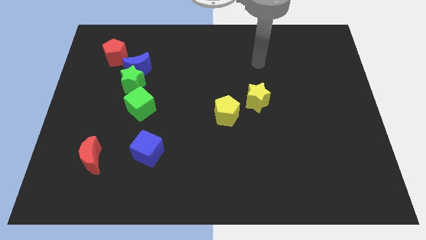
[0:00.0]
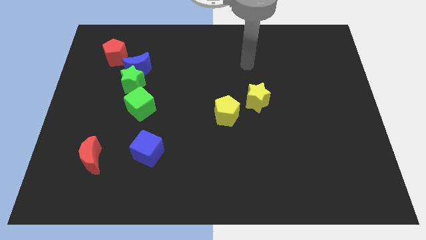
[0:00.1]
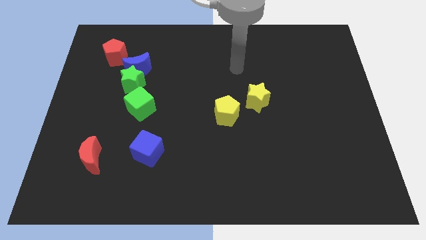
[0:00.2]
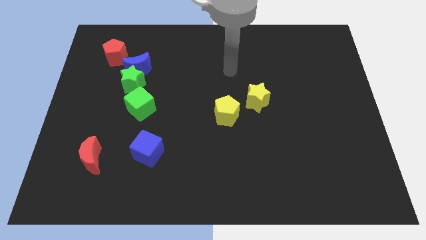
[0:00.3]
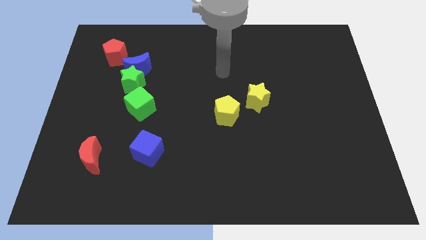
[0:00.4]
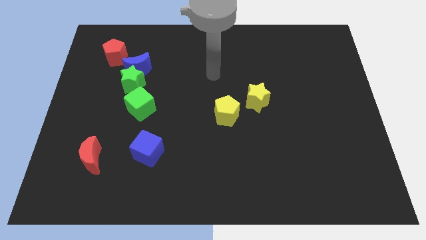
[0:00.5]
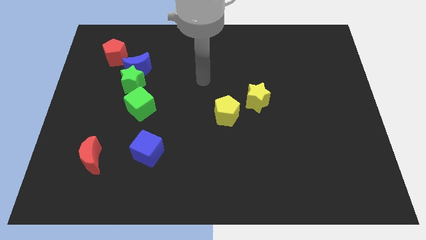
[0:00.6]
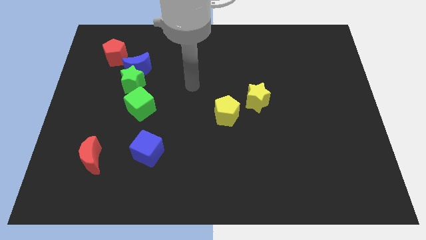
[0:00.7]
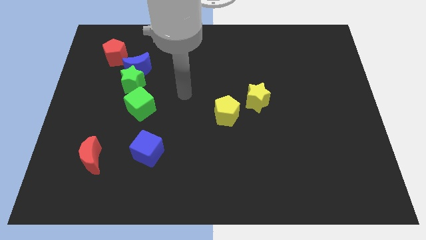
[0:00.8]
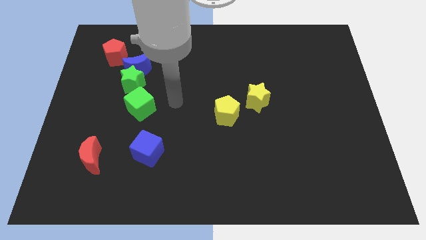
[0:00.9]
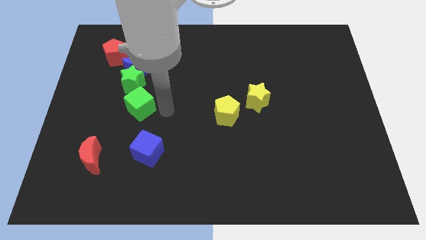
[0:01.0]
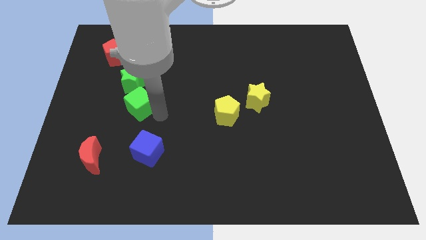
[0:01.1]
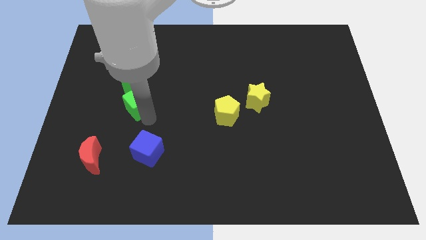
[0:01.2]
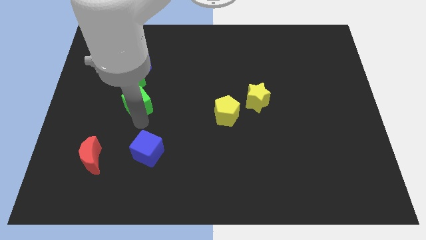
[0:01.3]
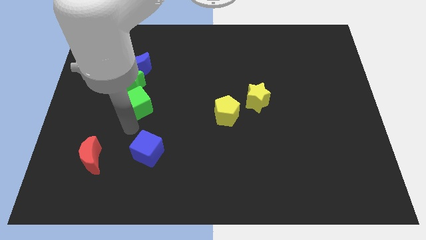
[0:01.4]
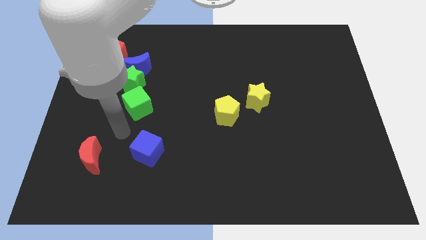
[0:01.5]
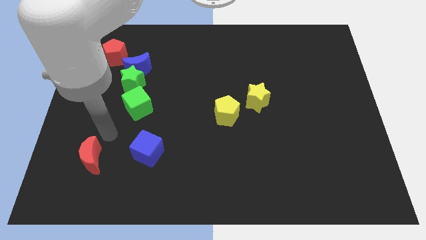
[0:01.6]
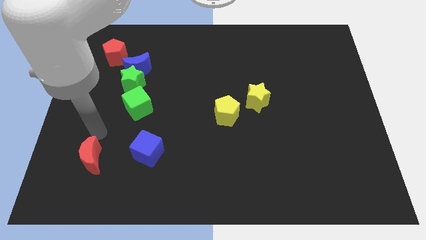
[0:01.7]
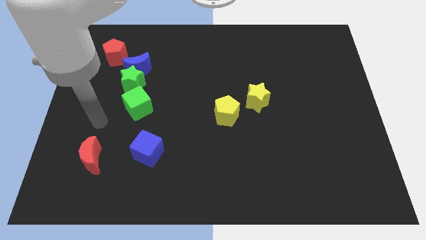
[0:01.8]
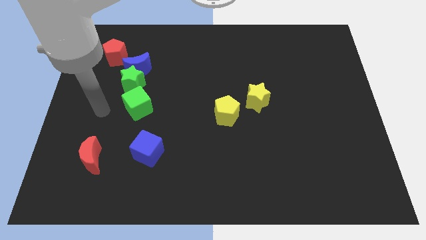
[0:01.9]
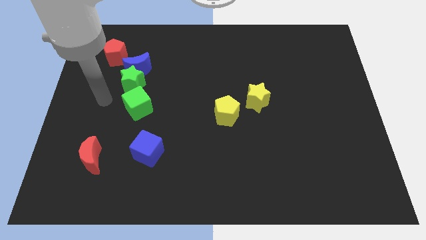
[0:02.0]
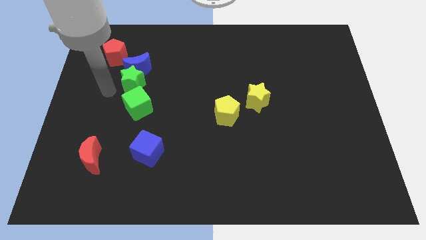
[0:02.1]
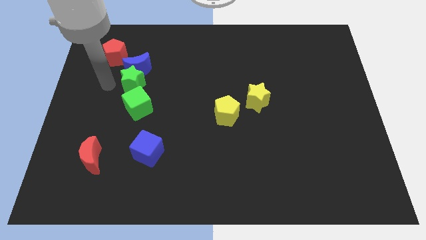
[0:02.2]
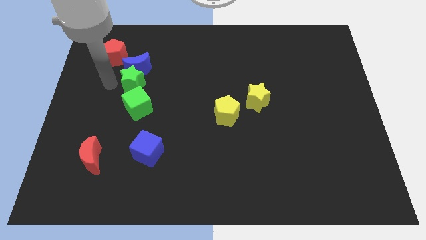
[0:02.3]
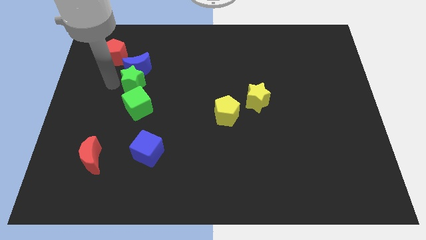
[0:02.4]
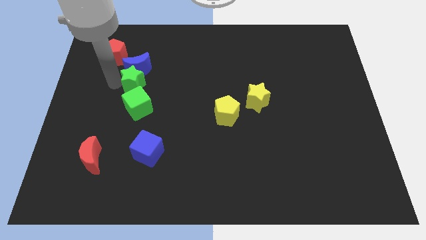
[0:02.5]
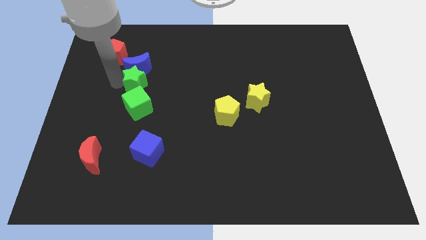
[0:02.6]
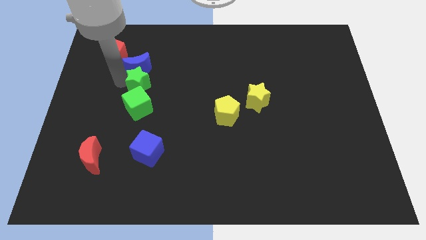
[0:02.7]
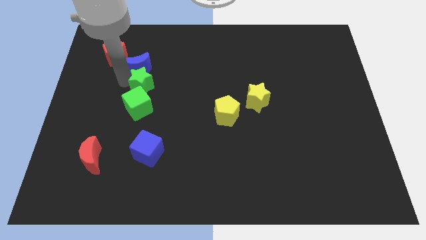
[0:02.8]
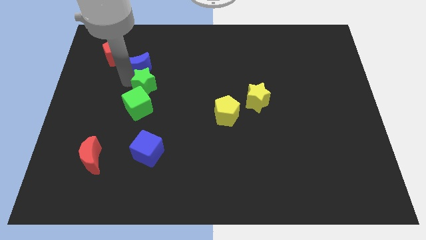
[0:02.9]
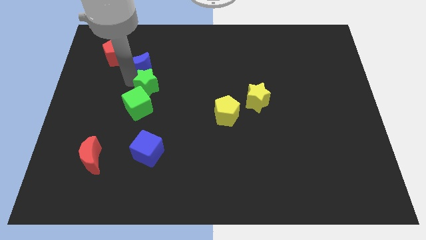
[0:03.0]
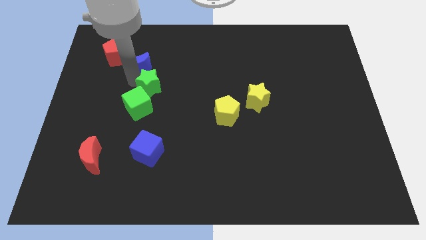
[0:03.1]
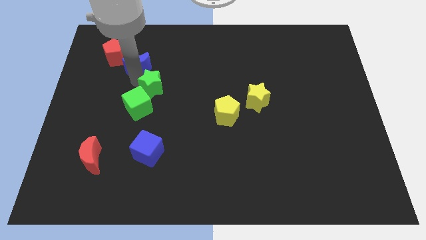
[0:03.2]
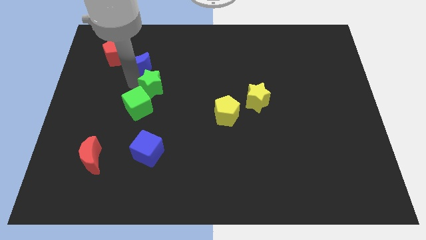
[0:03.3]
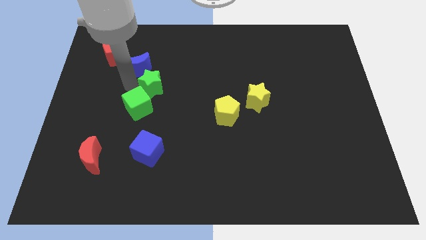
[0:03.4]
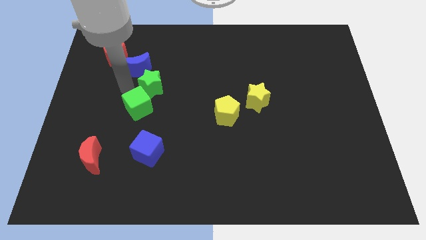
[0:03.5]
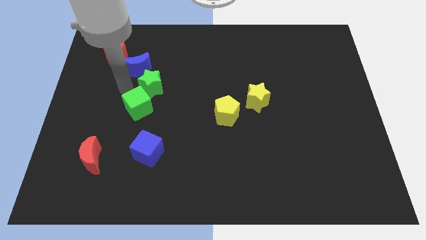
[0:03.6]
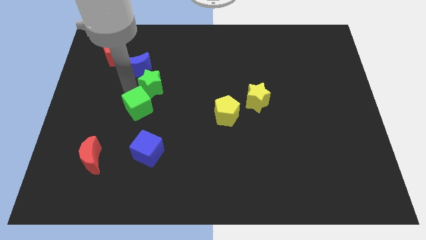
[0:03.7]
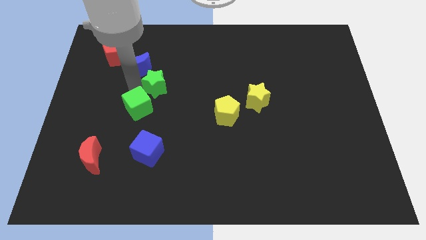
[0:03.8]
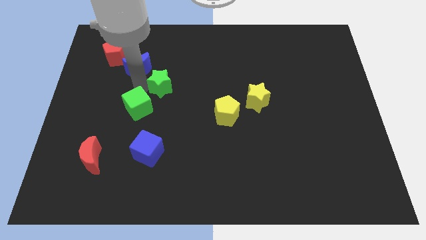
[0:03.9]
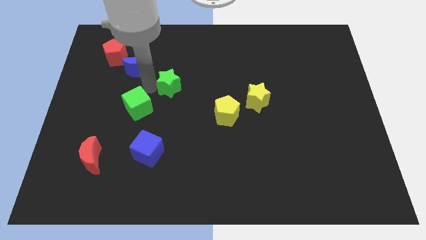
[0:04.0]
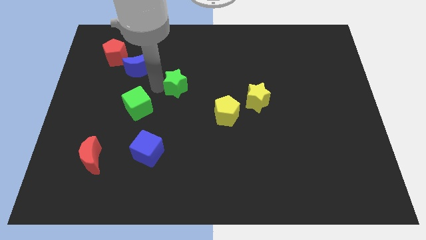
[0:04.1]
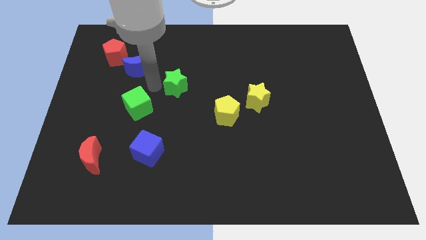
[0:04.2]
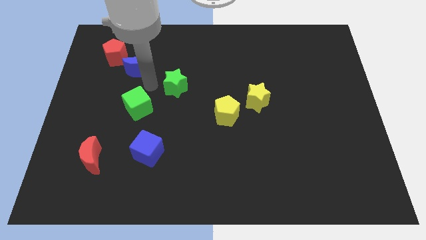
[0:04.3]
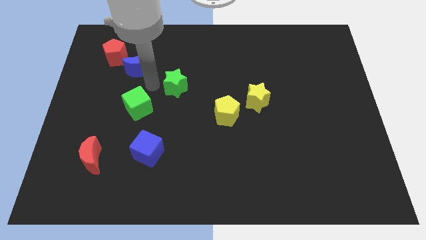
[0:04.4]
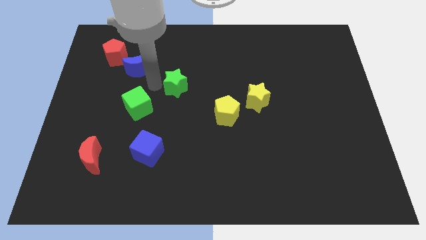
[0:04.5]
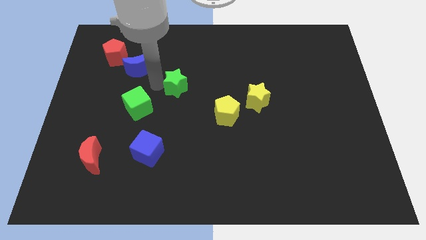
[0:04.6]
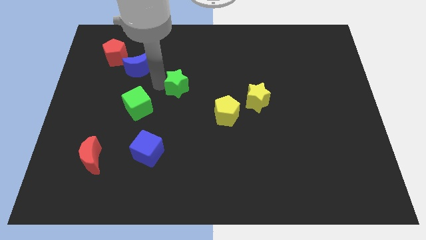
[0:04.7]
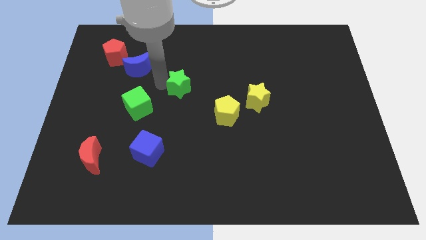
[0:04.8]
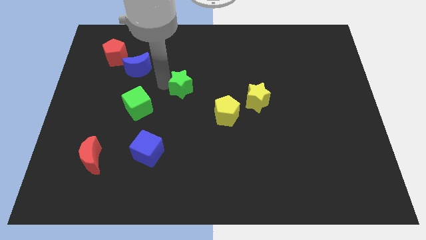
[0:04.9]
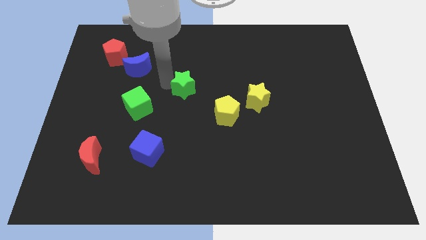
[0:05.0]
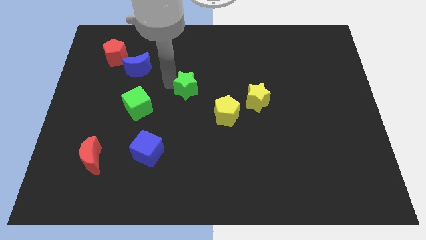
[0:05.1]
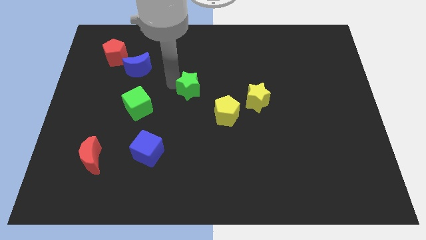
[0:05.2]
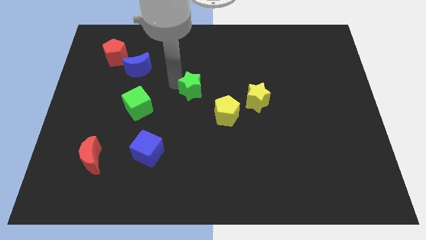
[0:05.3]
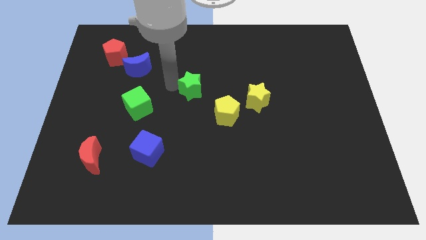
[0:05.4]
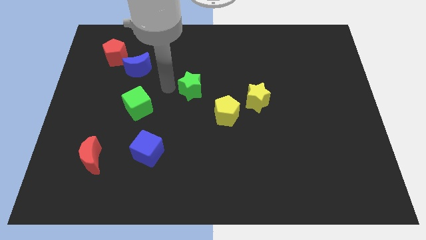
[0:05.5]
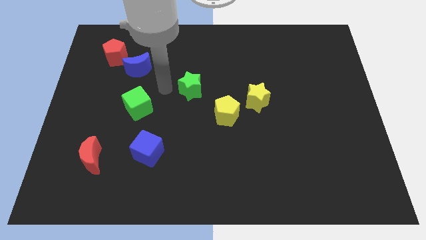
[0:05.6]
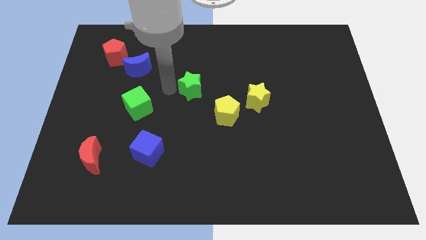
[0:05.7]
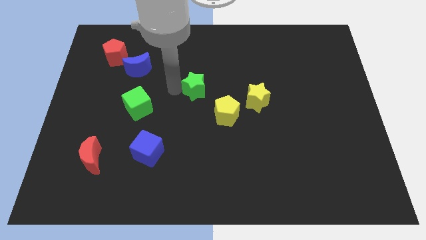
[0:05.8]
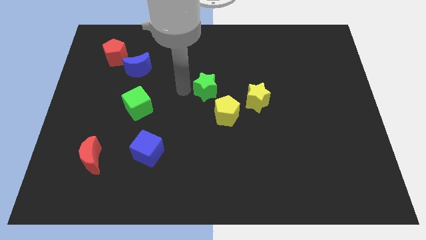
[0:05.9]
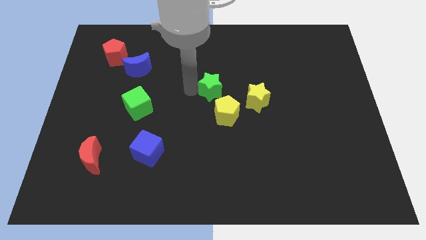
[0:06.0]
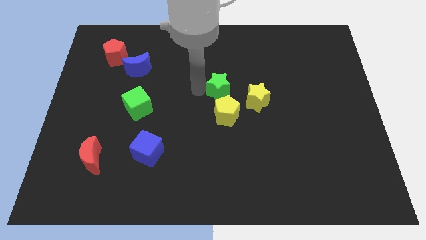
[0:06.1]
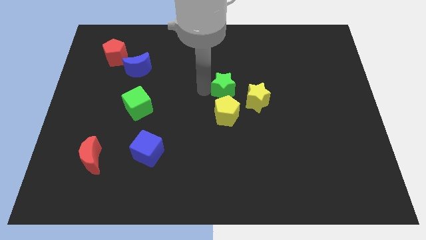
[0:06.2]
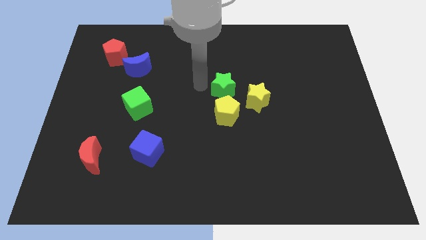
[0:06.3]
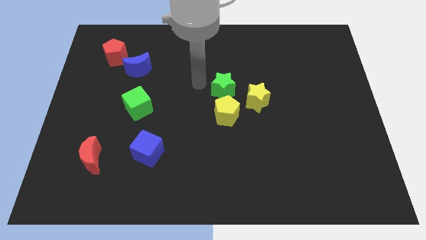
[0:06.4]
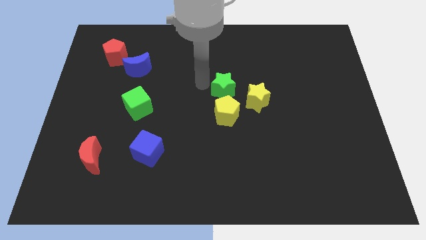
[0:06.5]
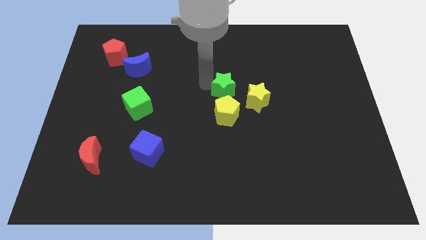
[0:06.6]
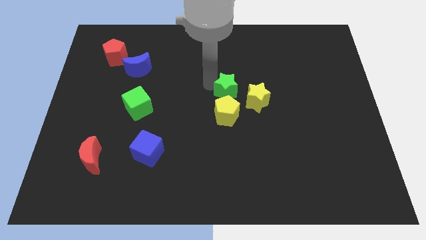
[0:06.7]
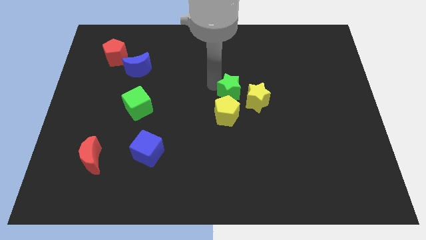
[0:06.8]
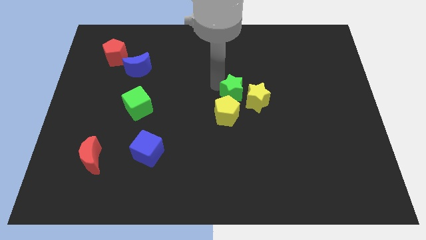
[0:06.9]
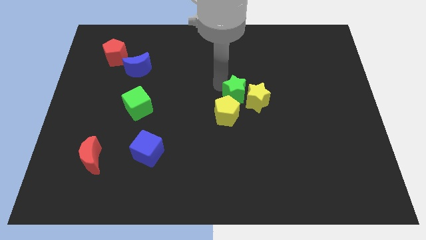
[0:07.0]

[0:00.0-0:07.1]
move the green star close to the yellow star
